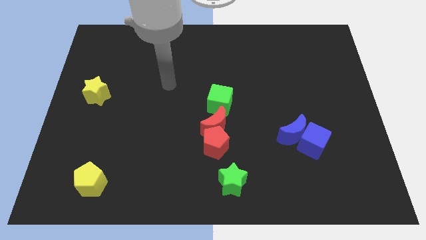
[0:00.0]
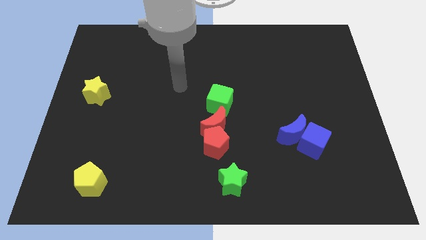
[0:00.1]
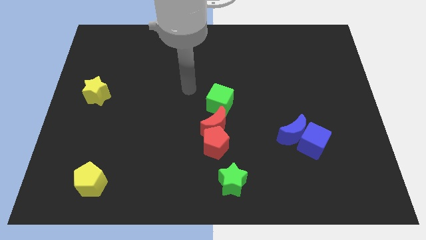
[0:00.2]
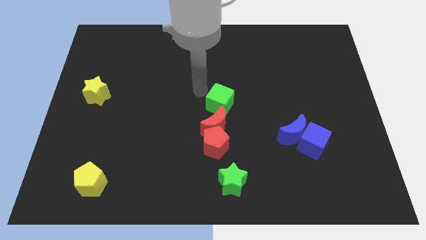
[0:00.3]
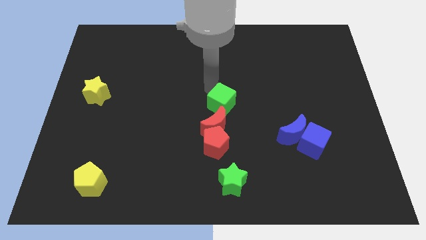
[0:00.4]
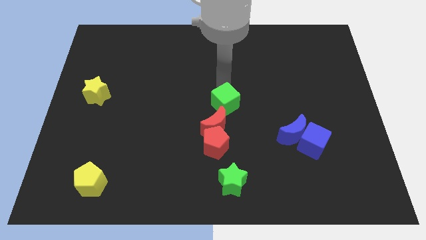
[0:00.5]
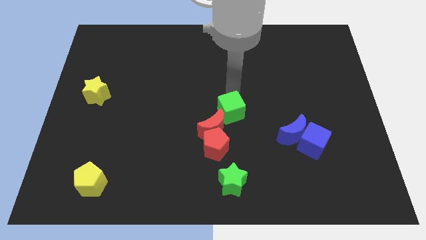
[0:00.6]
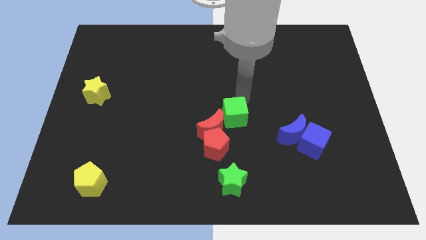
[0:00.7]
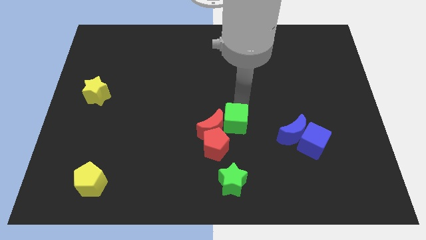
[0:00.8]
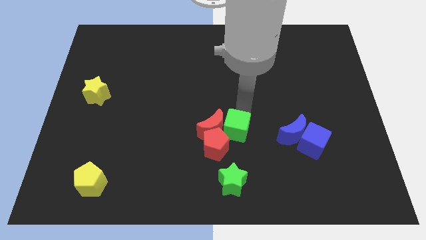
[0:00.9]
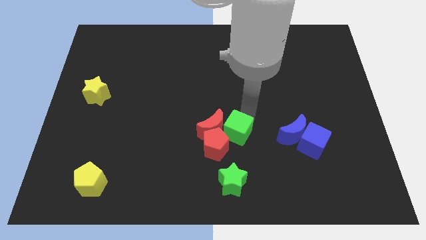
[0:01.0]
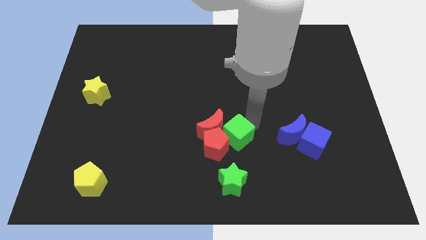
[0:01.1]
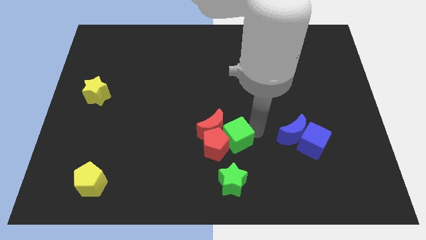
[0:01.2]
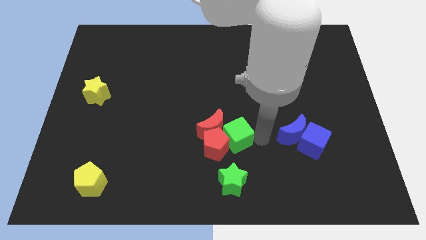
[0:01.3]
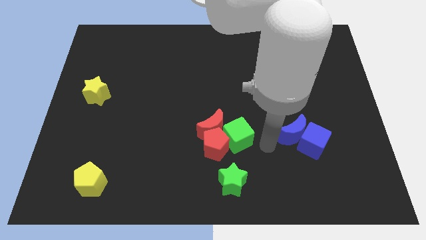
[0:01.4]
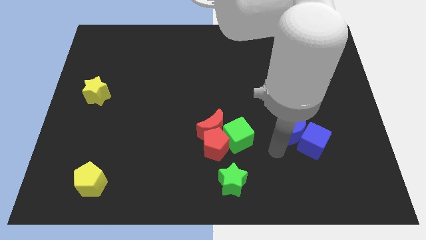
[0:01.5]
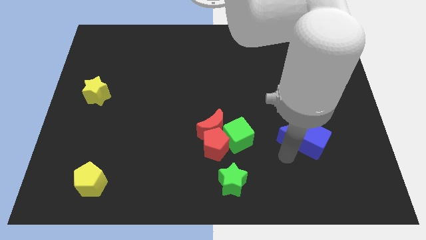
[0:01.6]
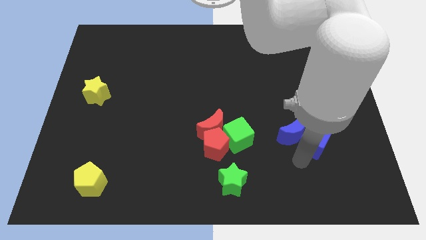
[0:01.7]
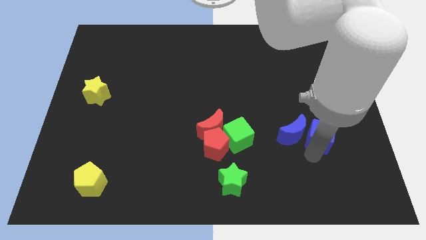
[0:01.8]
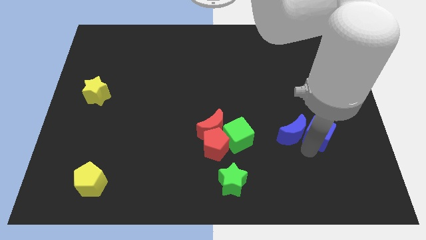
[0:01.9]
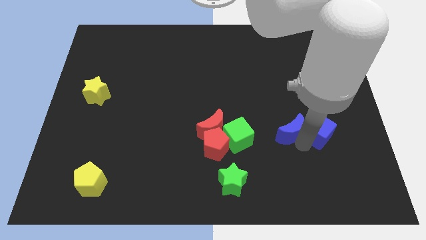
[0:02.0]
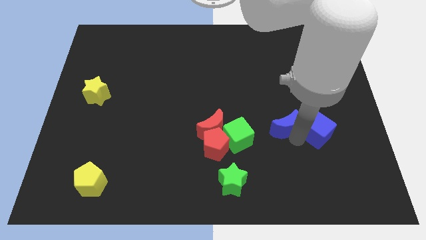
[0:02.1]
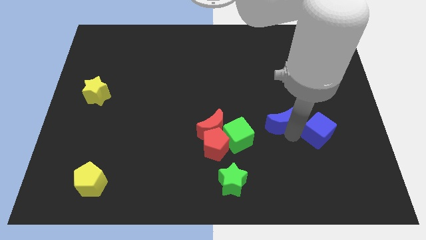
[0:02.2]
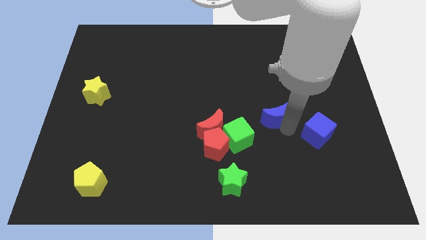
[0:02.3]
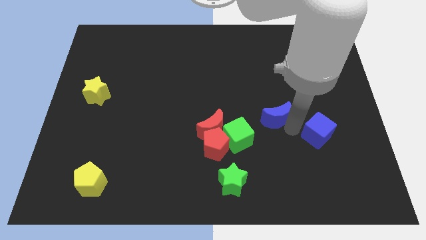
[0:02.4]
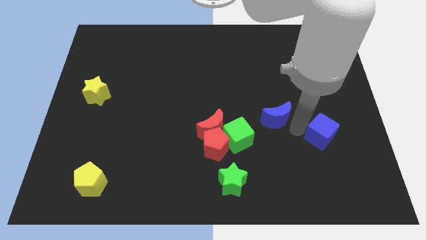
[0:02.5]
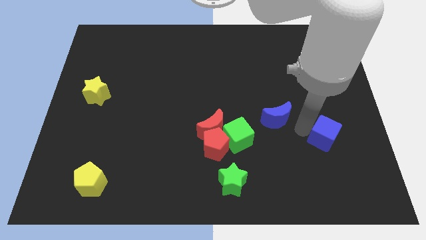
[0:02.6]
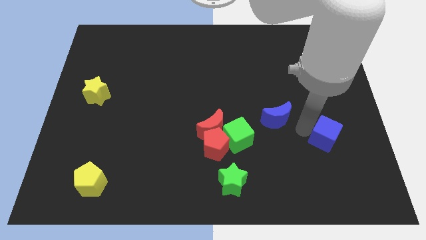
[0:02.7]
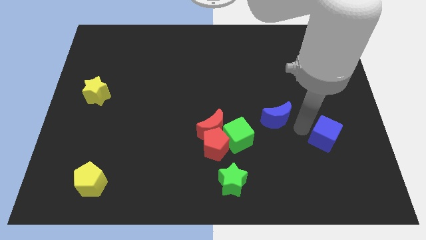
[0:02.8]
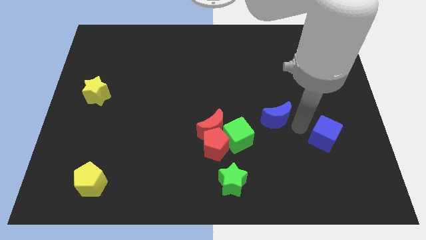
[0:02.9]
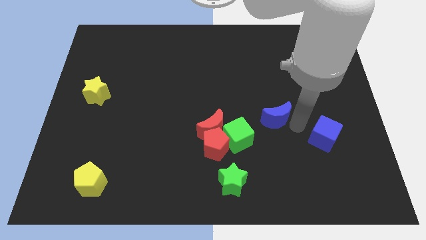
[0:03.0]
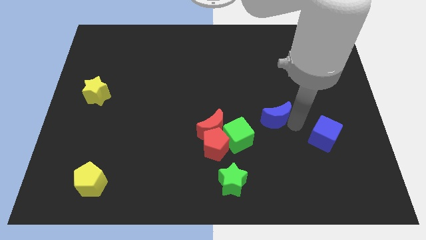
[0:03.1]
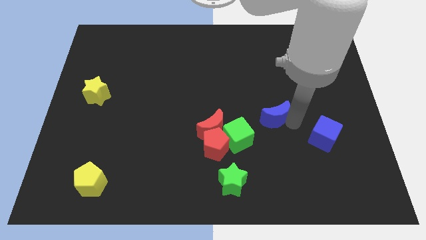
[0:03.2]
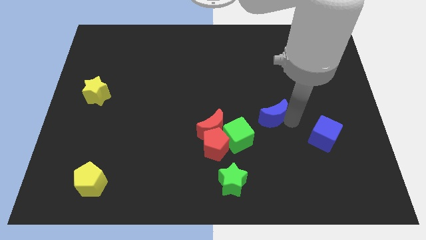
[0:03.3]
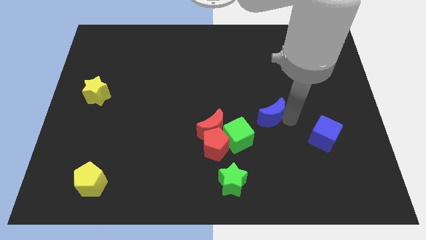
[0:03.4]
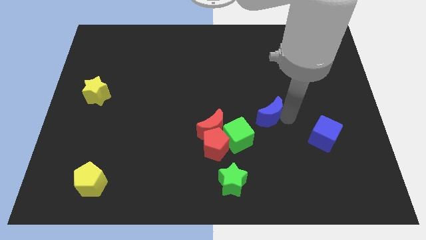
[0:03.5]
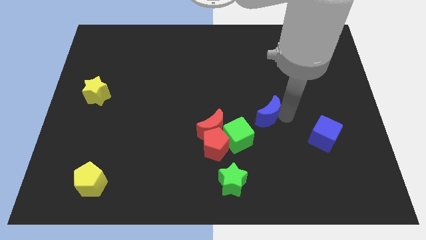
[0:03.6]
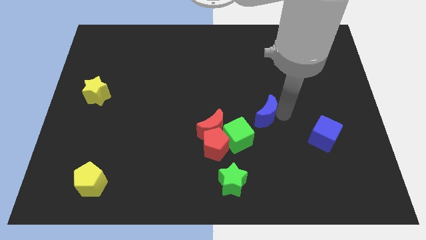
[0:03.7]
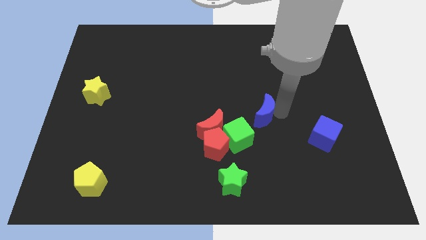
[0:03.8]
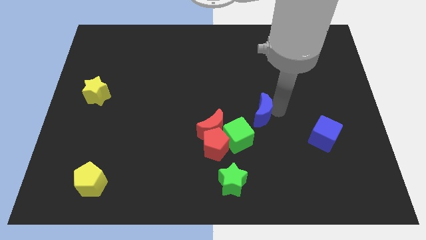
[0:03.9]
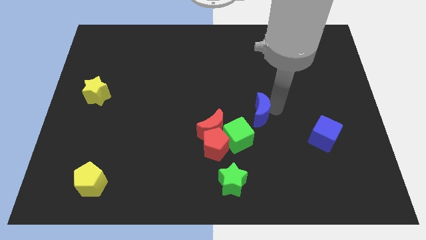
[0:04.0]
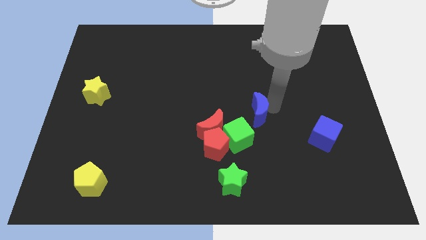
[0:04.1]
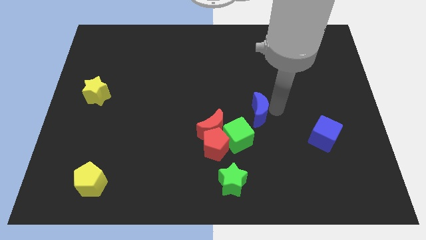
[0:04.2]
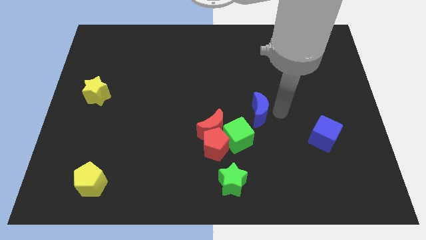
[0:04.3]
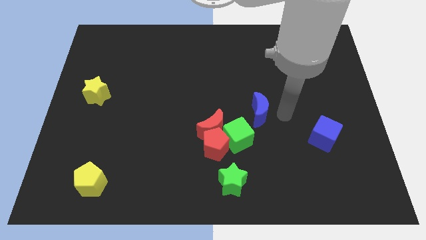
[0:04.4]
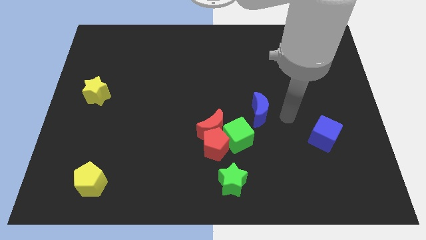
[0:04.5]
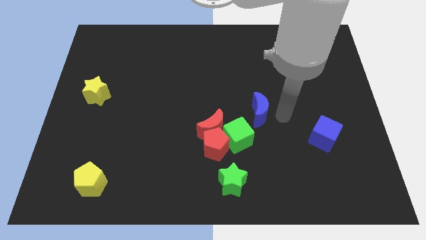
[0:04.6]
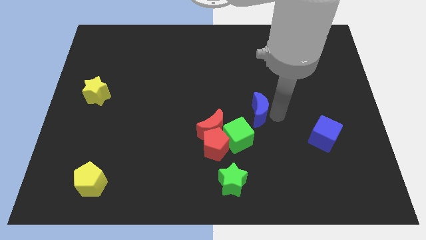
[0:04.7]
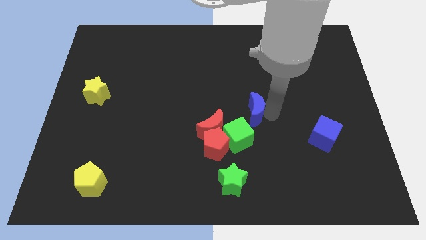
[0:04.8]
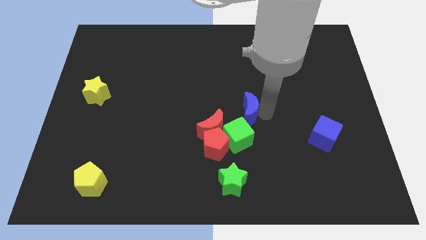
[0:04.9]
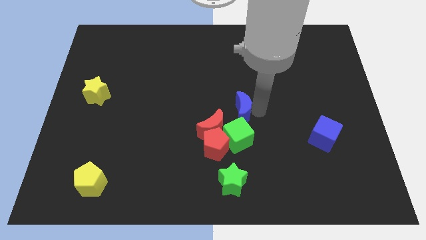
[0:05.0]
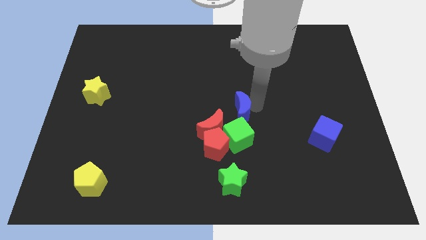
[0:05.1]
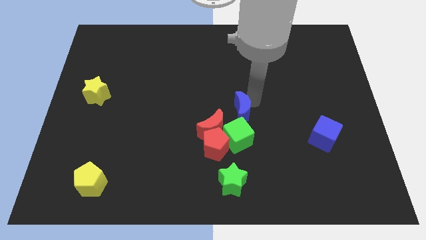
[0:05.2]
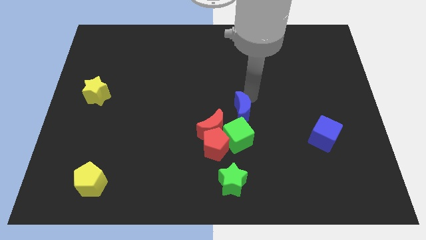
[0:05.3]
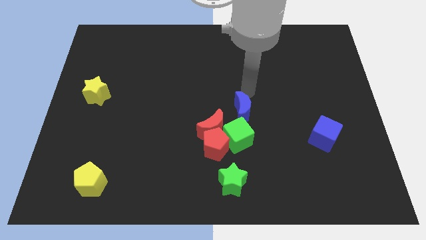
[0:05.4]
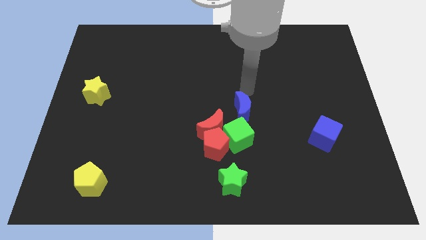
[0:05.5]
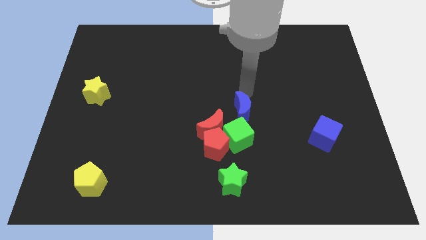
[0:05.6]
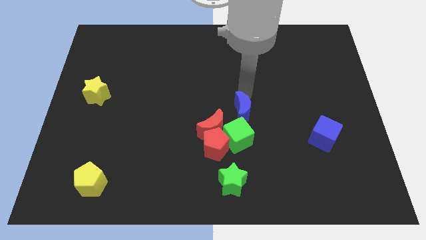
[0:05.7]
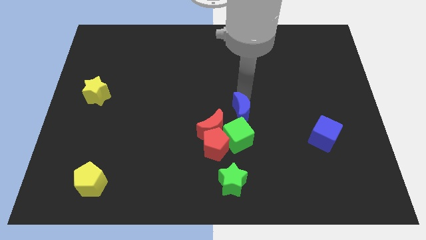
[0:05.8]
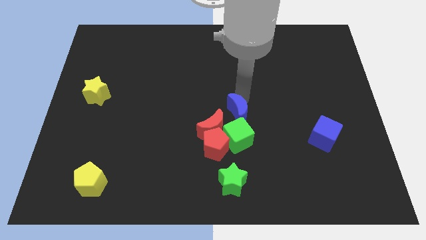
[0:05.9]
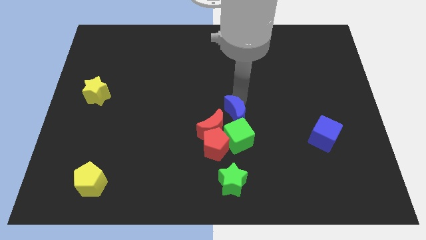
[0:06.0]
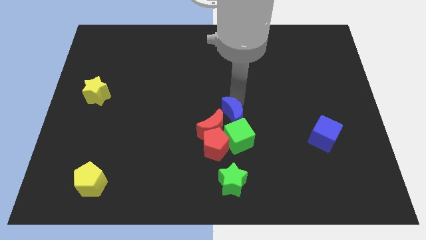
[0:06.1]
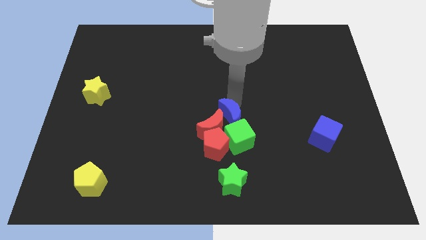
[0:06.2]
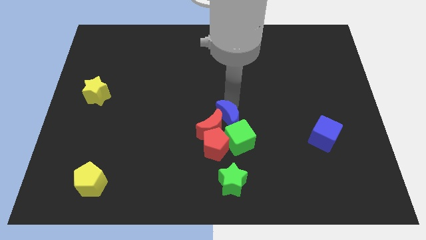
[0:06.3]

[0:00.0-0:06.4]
push the blue moon next to the green cube

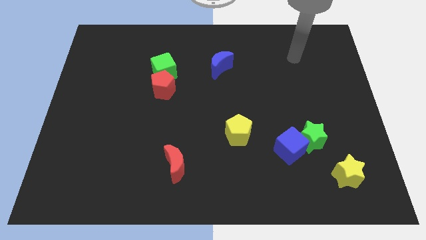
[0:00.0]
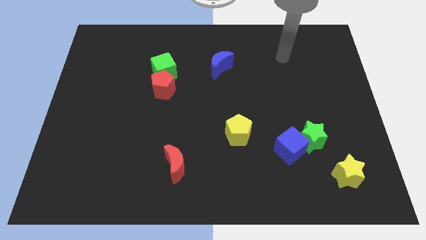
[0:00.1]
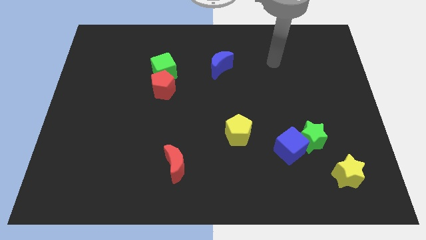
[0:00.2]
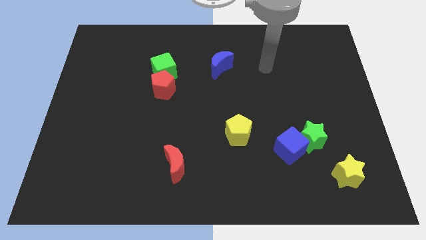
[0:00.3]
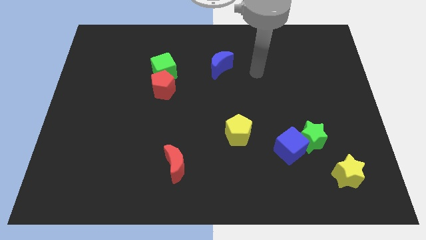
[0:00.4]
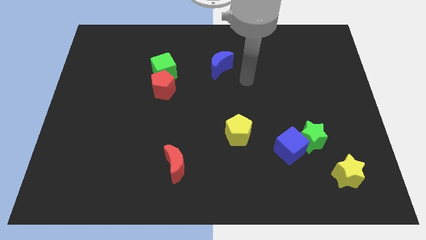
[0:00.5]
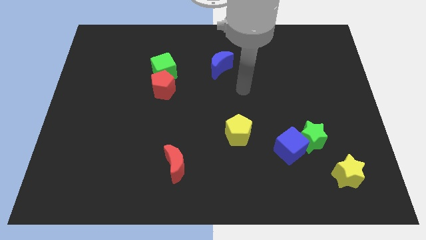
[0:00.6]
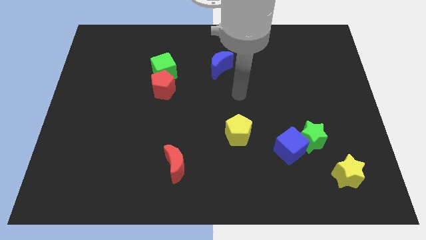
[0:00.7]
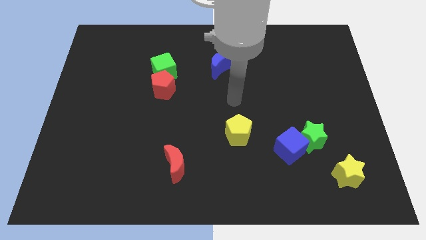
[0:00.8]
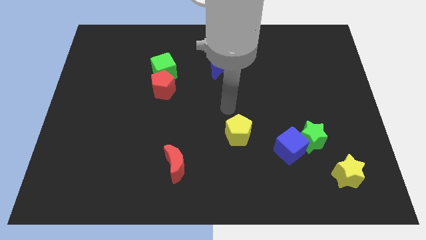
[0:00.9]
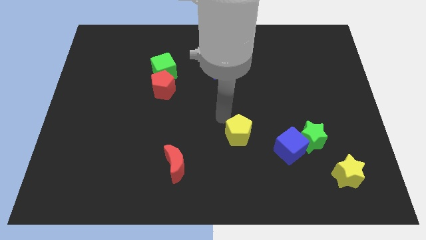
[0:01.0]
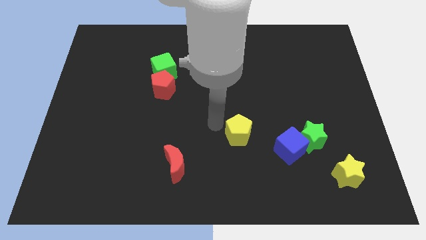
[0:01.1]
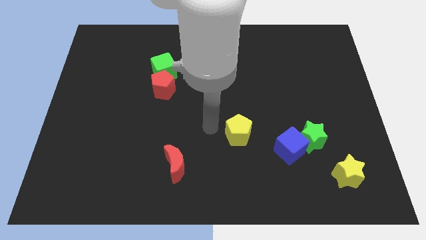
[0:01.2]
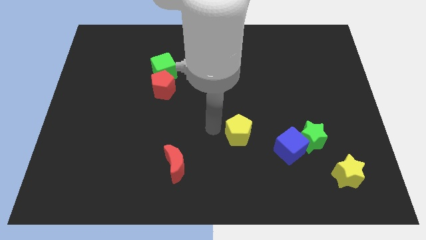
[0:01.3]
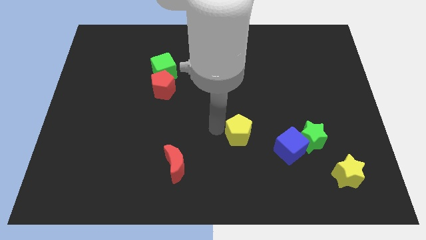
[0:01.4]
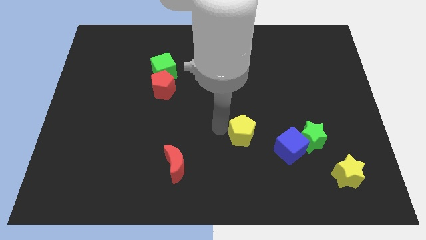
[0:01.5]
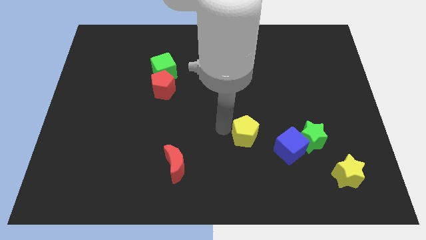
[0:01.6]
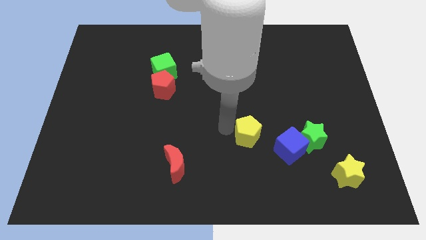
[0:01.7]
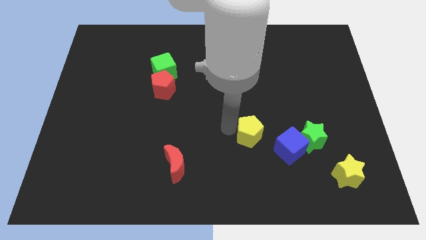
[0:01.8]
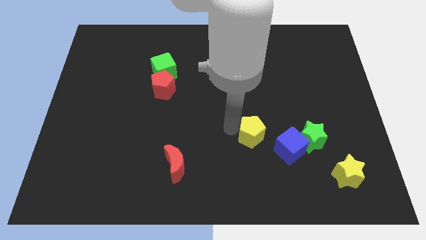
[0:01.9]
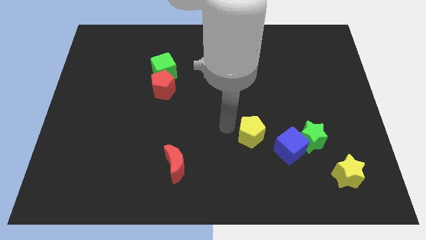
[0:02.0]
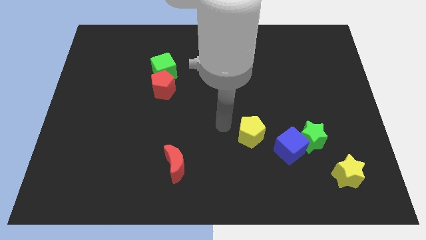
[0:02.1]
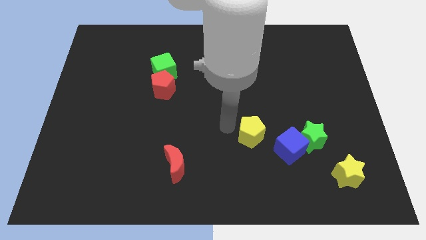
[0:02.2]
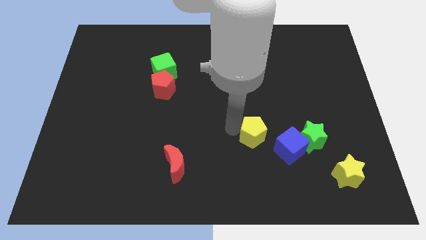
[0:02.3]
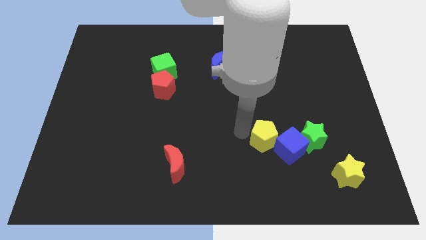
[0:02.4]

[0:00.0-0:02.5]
push the yellow pentagon close to the blue cube
